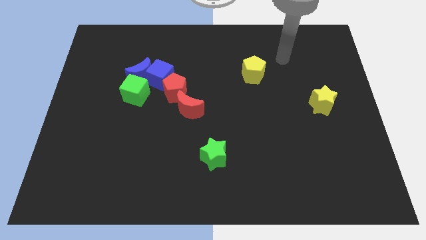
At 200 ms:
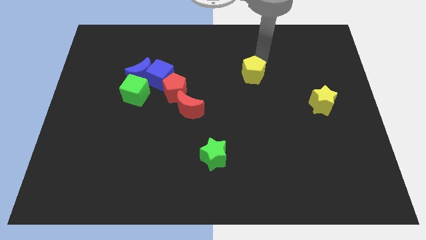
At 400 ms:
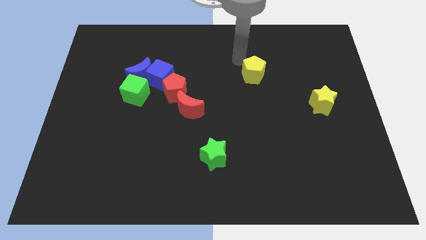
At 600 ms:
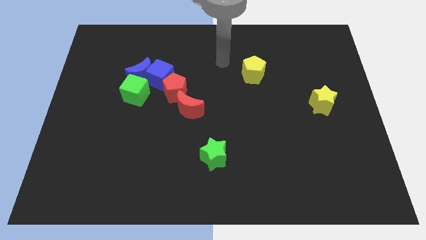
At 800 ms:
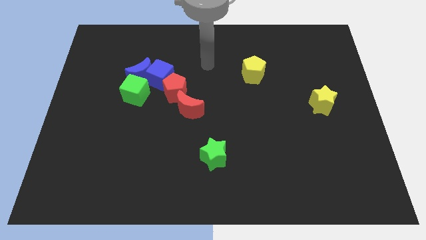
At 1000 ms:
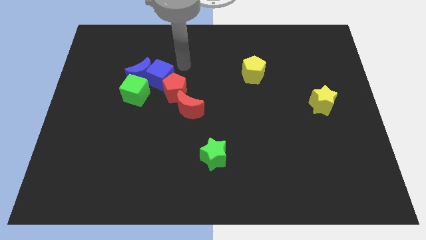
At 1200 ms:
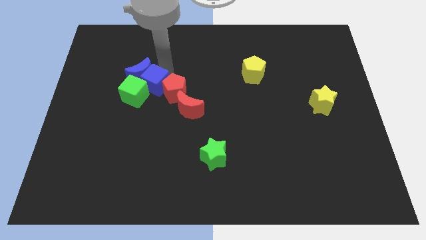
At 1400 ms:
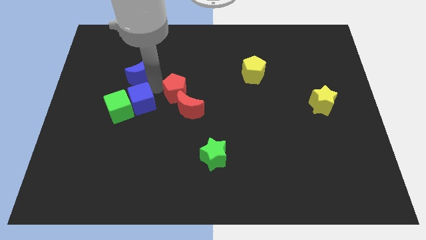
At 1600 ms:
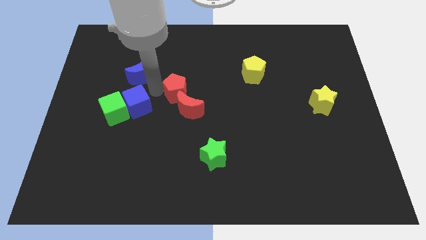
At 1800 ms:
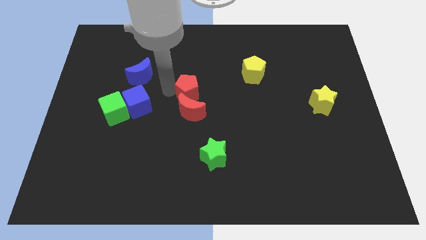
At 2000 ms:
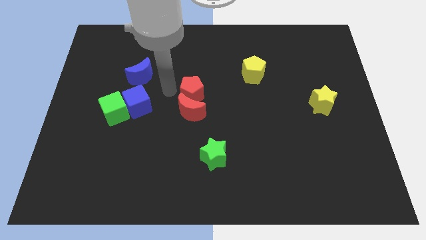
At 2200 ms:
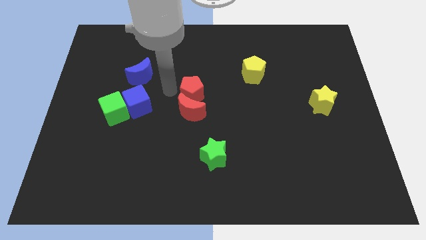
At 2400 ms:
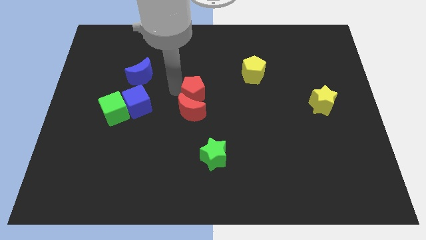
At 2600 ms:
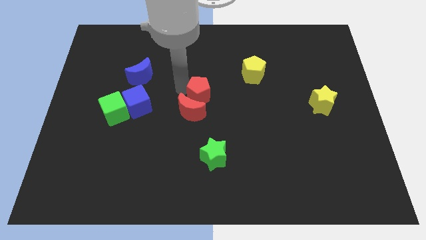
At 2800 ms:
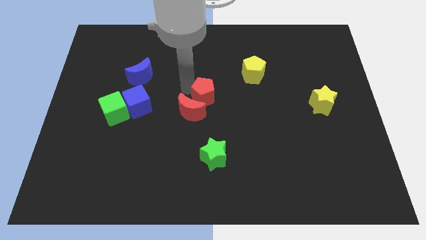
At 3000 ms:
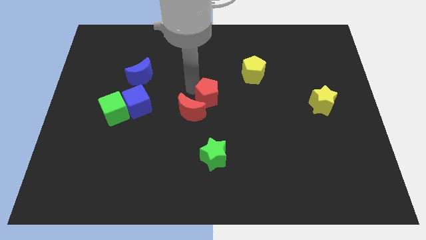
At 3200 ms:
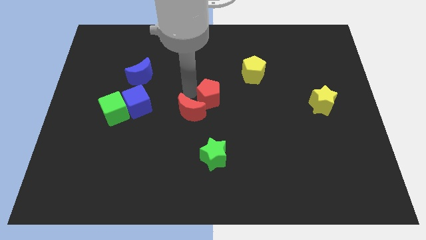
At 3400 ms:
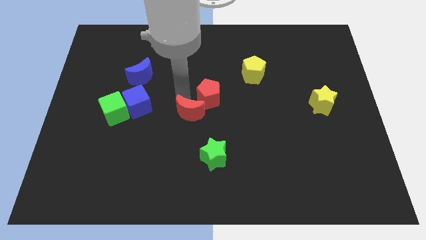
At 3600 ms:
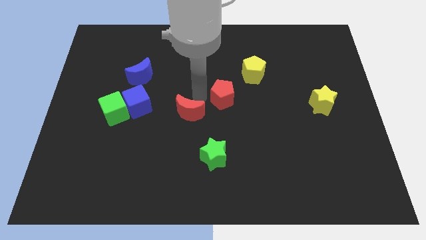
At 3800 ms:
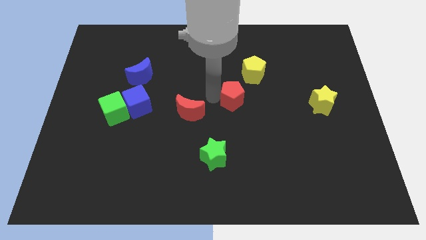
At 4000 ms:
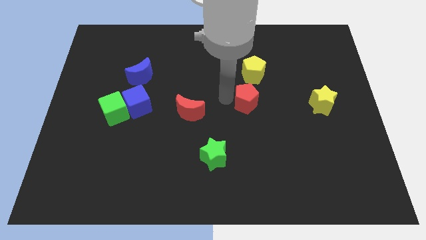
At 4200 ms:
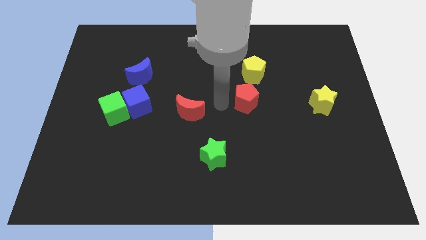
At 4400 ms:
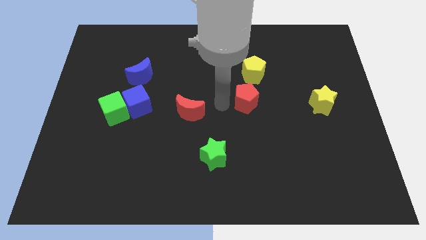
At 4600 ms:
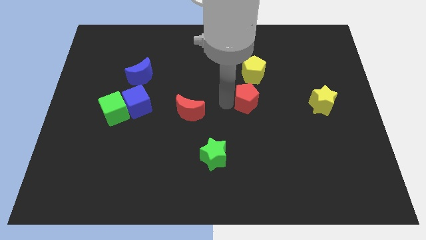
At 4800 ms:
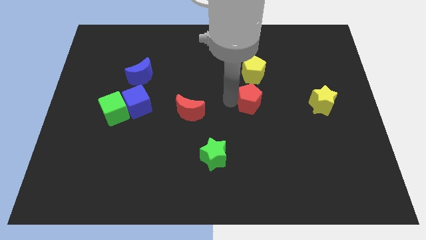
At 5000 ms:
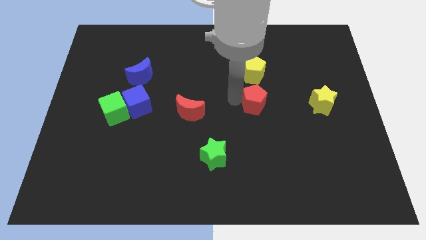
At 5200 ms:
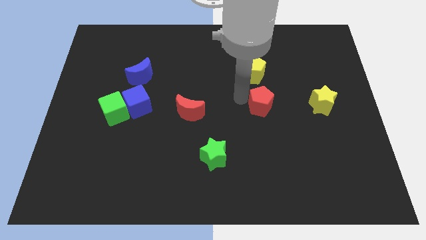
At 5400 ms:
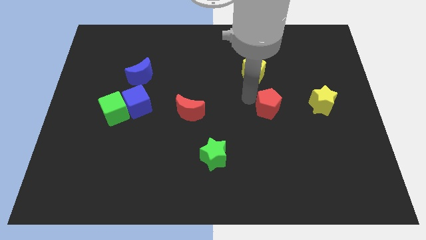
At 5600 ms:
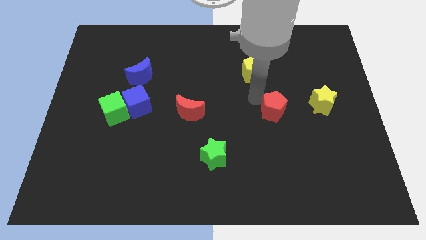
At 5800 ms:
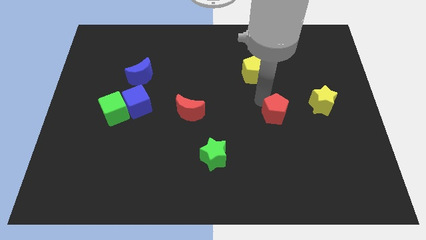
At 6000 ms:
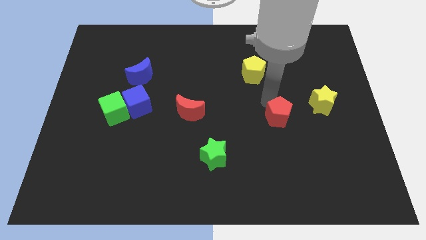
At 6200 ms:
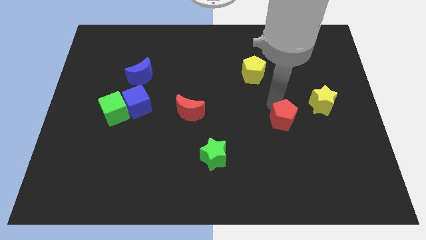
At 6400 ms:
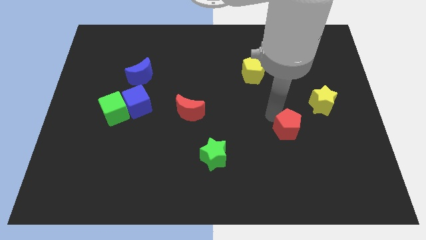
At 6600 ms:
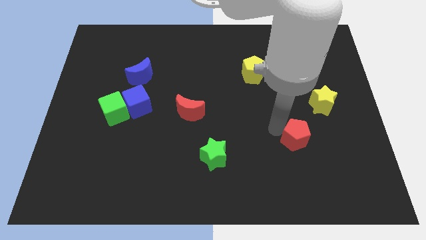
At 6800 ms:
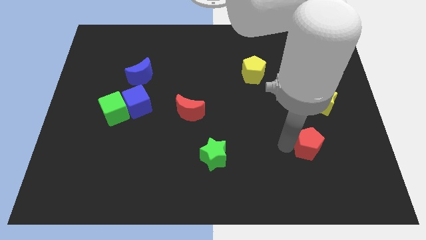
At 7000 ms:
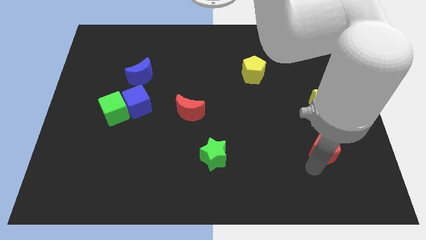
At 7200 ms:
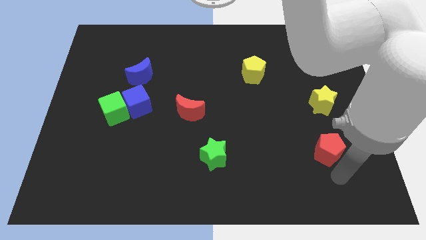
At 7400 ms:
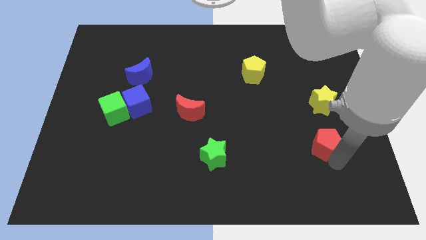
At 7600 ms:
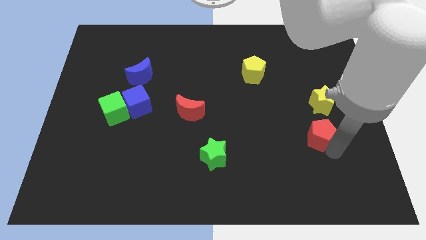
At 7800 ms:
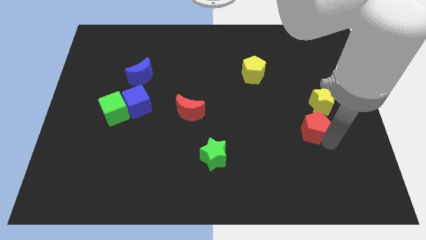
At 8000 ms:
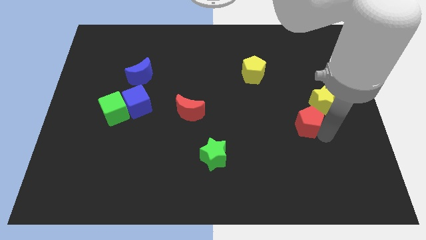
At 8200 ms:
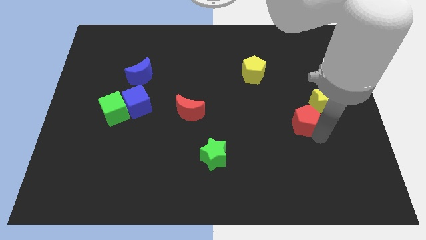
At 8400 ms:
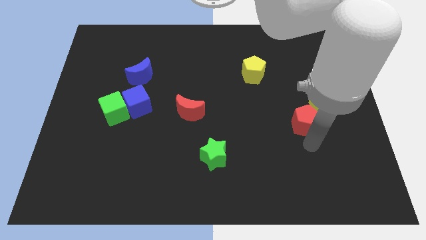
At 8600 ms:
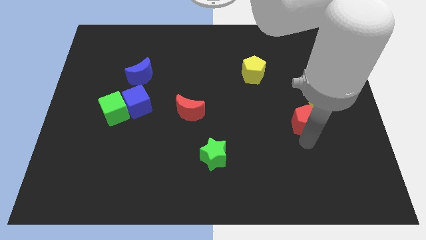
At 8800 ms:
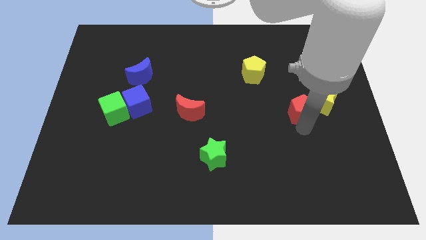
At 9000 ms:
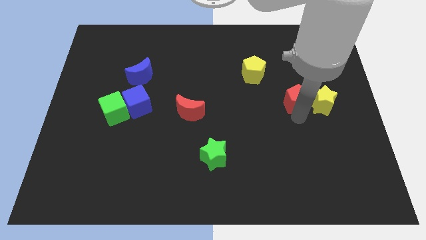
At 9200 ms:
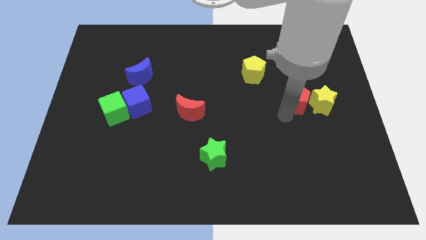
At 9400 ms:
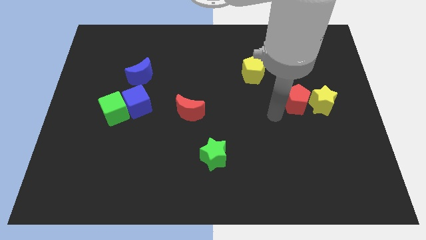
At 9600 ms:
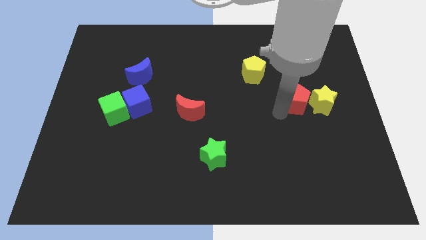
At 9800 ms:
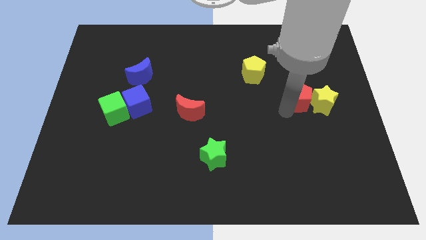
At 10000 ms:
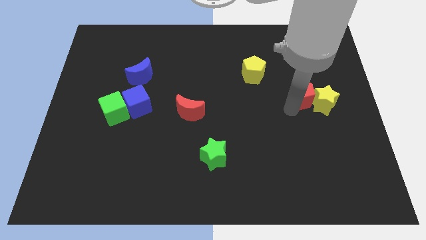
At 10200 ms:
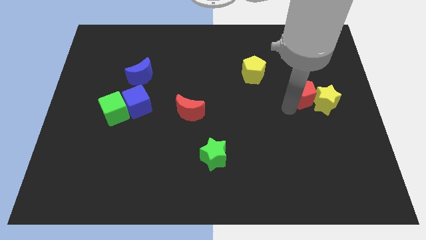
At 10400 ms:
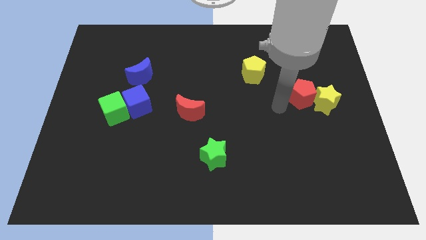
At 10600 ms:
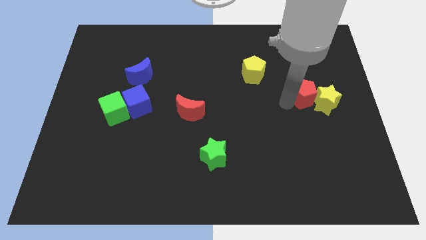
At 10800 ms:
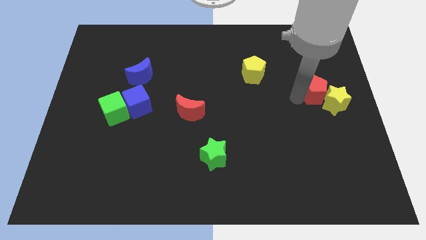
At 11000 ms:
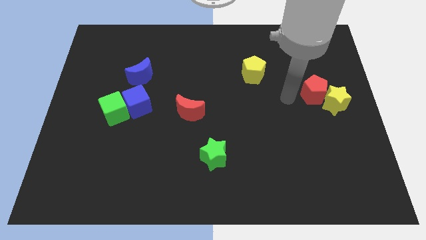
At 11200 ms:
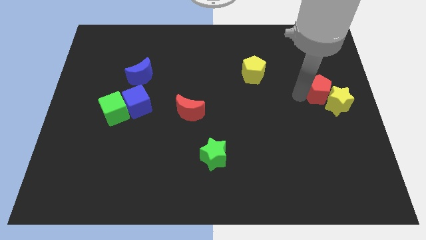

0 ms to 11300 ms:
put the red pentagon to the center right

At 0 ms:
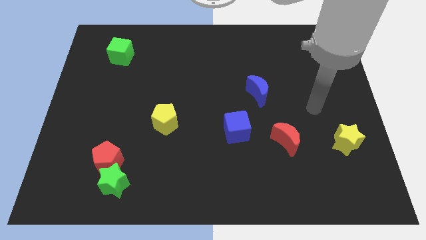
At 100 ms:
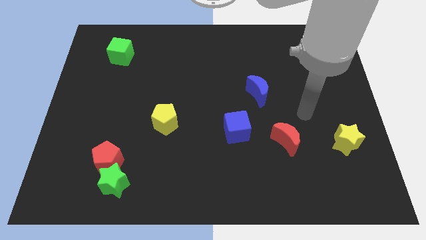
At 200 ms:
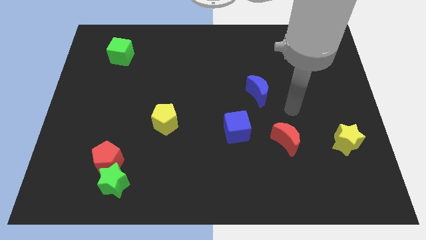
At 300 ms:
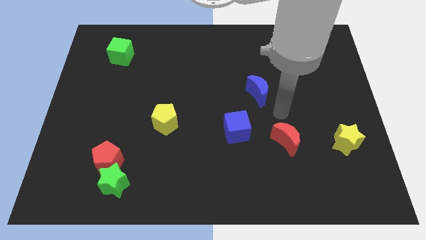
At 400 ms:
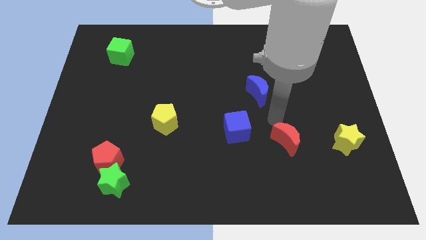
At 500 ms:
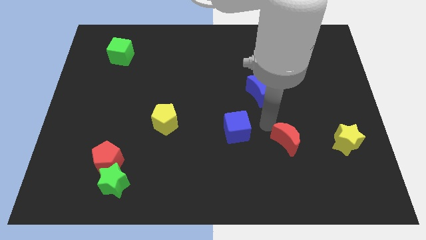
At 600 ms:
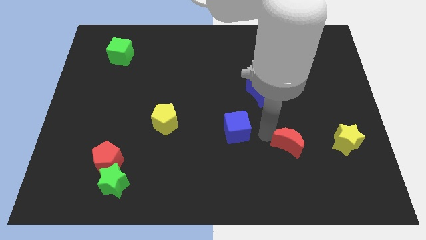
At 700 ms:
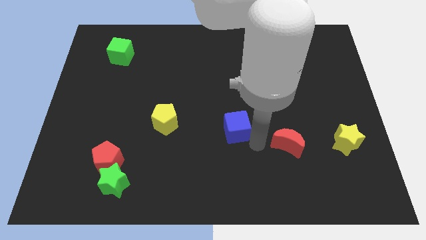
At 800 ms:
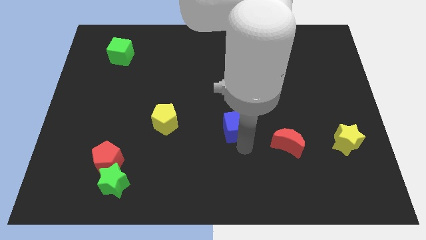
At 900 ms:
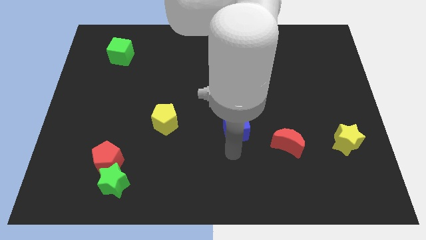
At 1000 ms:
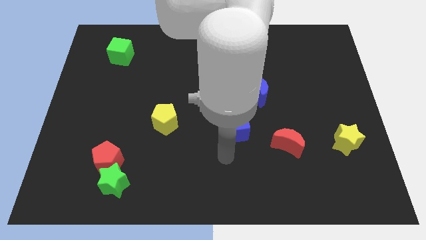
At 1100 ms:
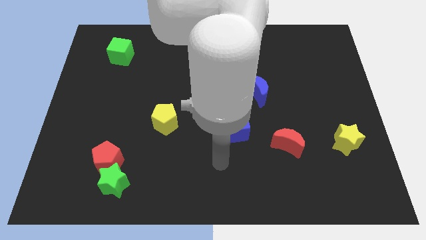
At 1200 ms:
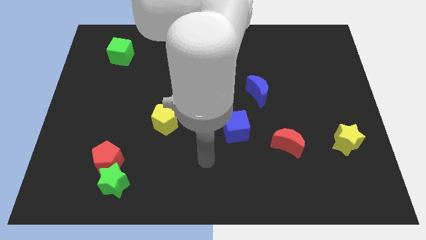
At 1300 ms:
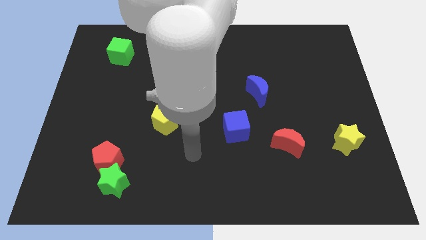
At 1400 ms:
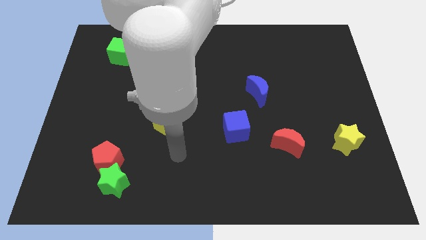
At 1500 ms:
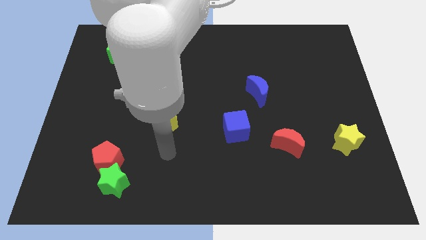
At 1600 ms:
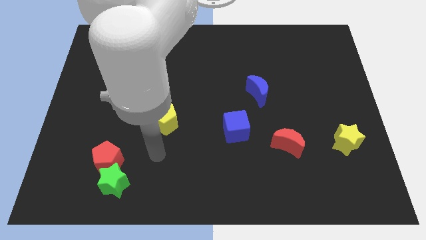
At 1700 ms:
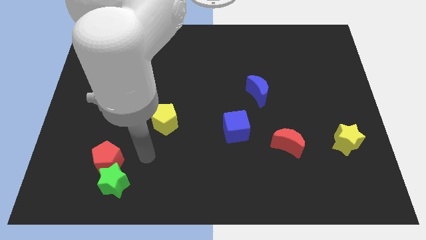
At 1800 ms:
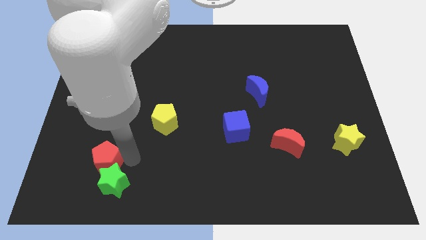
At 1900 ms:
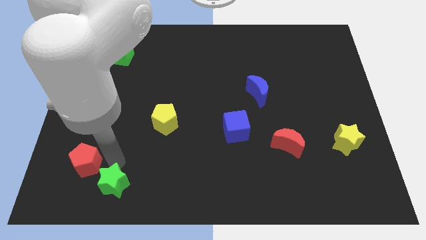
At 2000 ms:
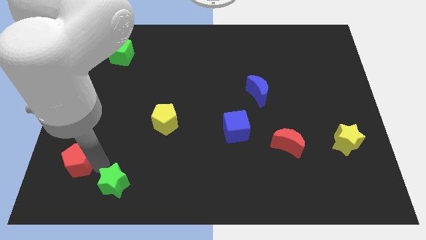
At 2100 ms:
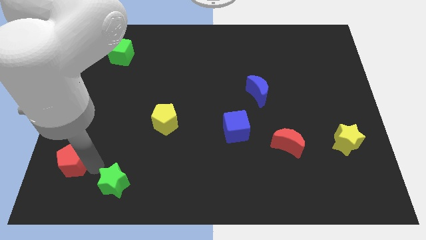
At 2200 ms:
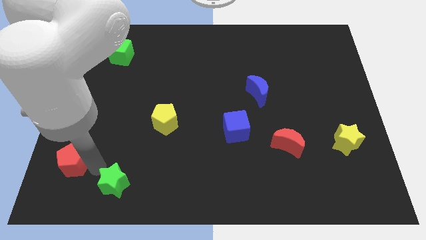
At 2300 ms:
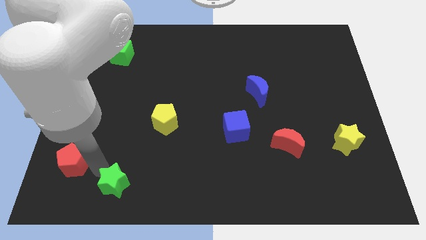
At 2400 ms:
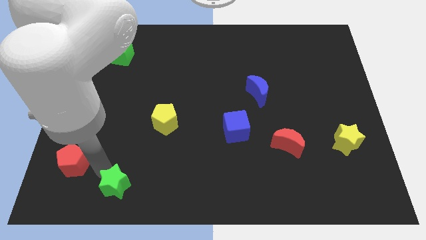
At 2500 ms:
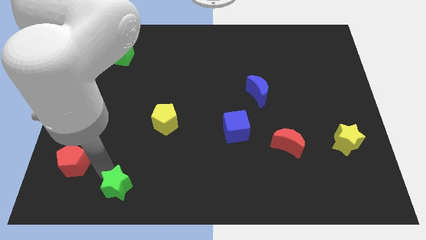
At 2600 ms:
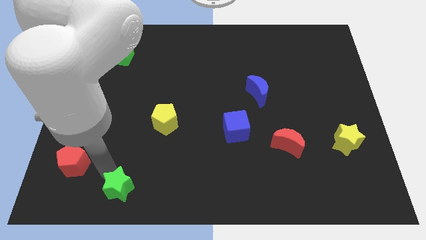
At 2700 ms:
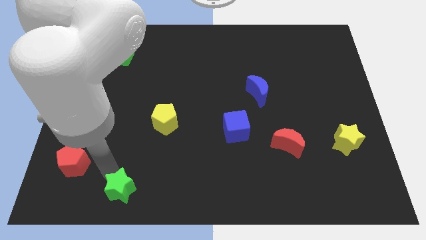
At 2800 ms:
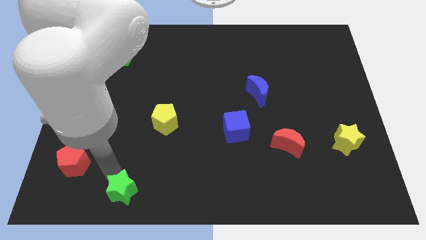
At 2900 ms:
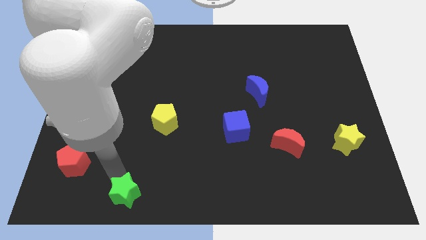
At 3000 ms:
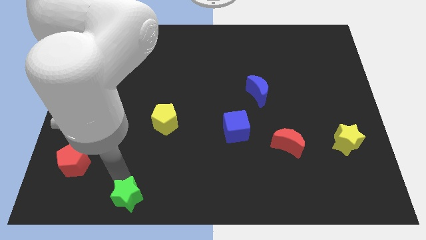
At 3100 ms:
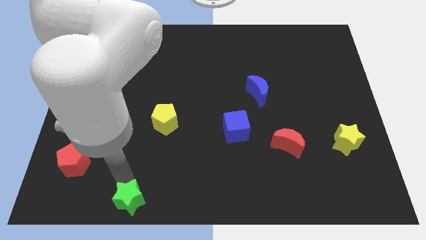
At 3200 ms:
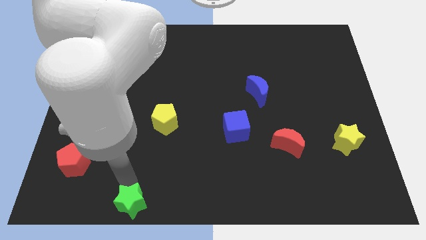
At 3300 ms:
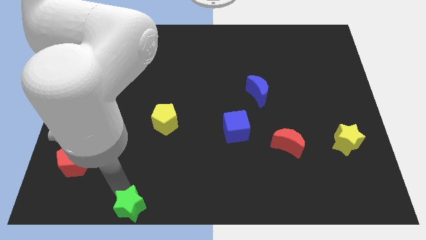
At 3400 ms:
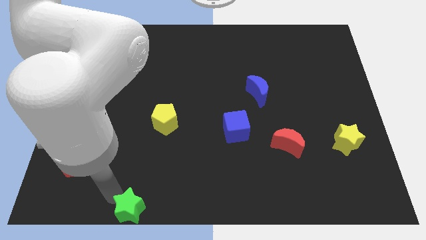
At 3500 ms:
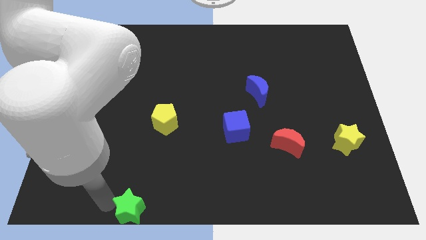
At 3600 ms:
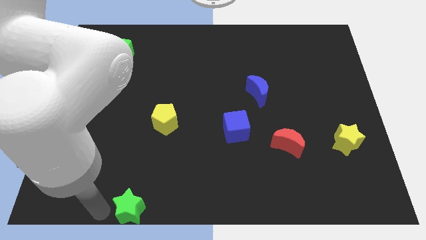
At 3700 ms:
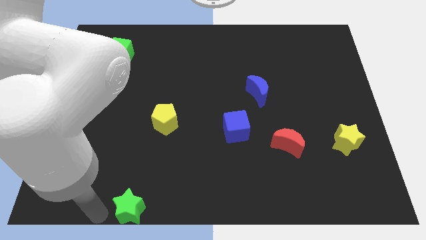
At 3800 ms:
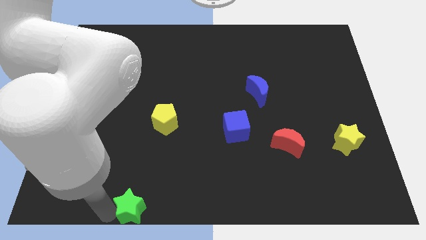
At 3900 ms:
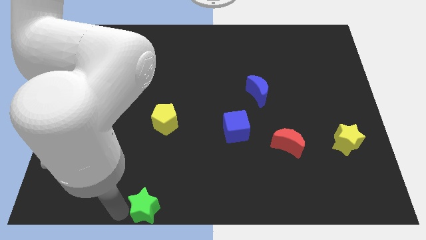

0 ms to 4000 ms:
slide the green star to the bottom
